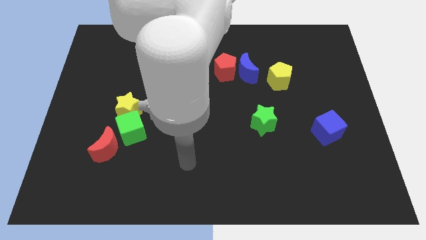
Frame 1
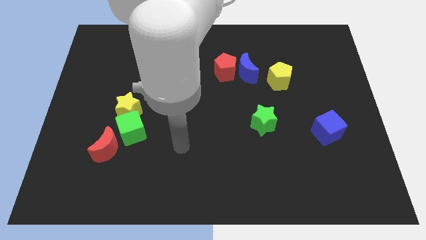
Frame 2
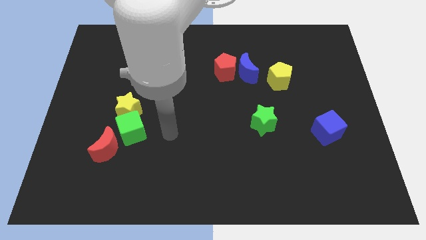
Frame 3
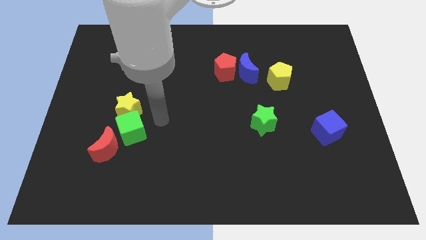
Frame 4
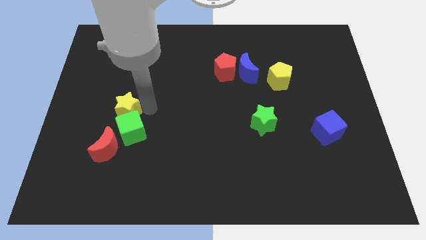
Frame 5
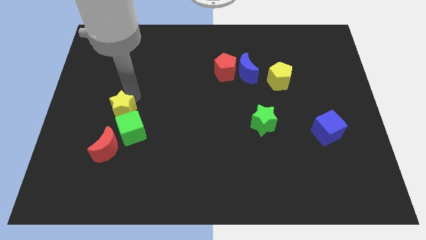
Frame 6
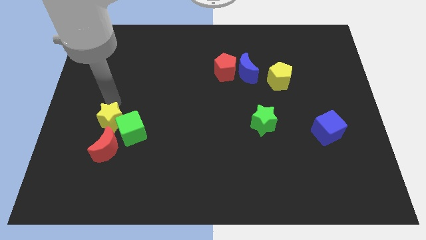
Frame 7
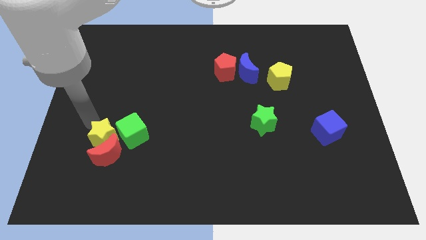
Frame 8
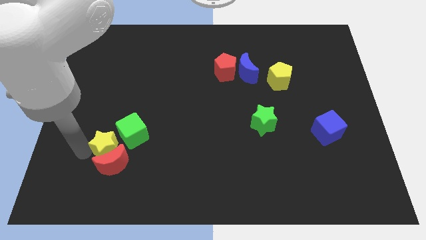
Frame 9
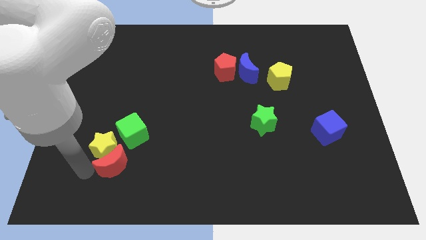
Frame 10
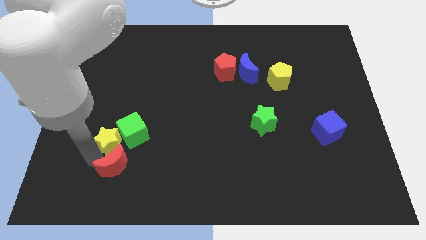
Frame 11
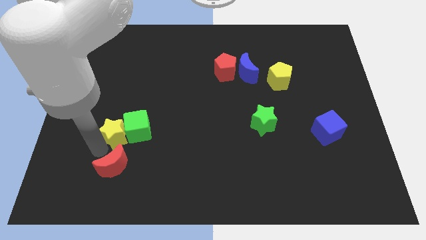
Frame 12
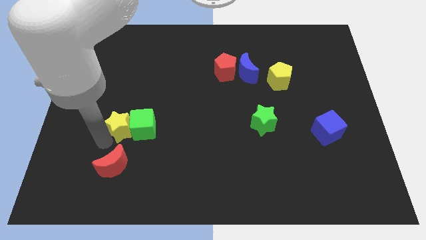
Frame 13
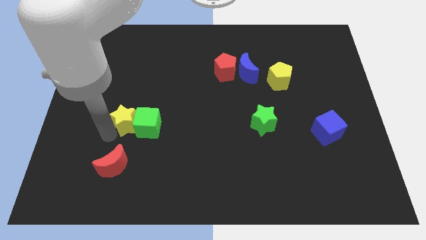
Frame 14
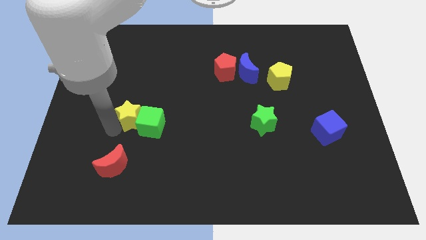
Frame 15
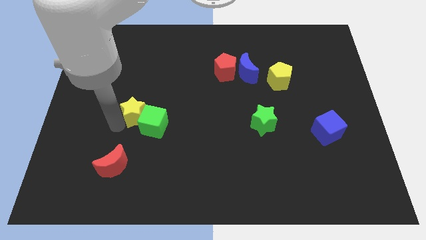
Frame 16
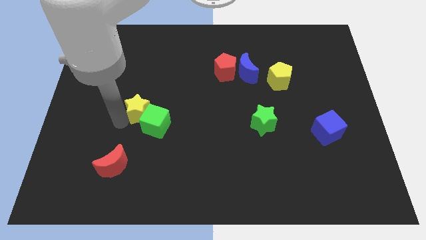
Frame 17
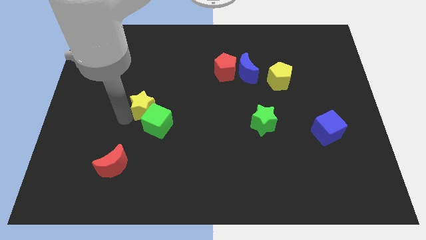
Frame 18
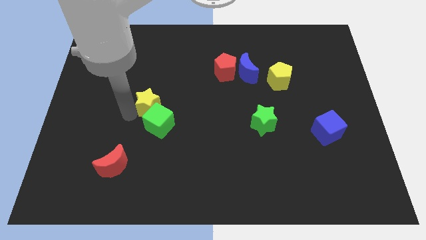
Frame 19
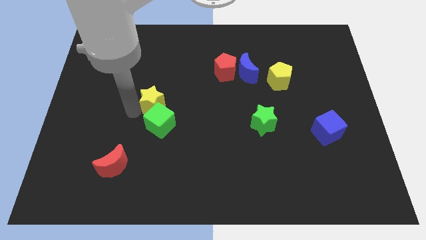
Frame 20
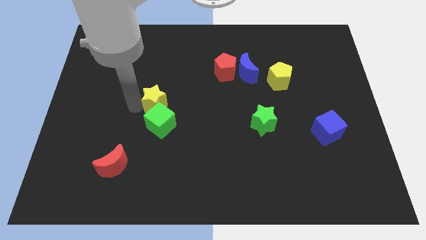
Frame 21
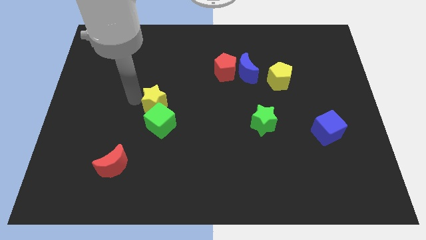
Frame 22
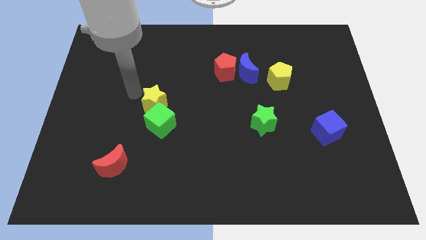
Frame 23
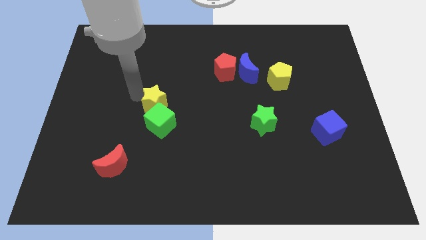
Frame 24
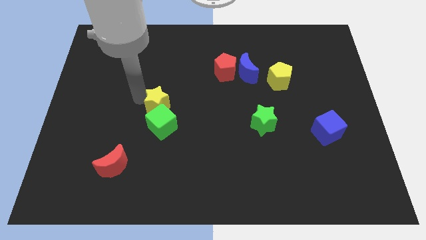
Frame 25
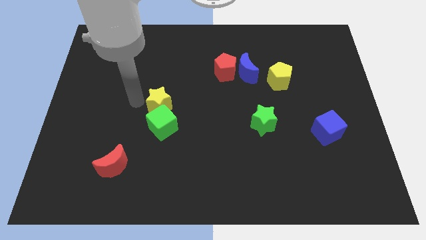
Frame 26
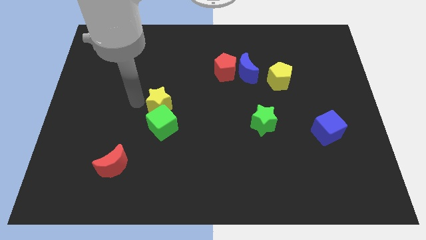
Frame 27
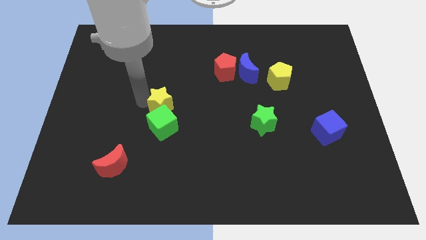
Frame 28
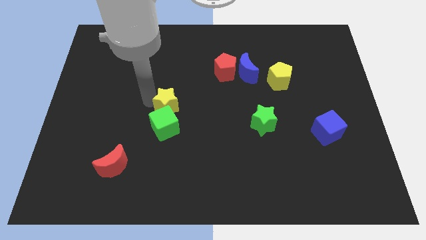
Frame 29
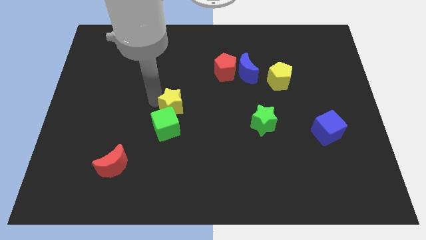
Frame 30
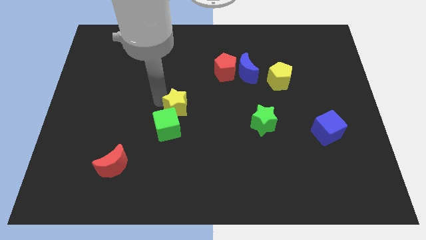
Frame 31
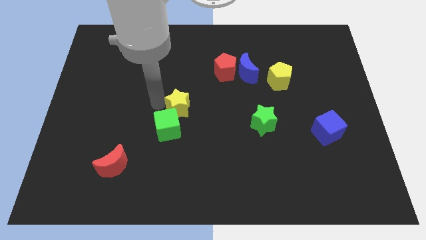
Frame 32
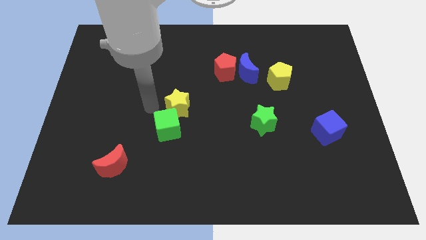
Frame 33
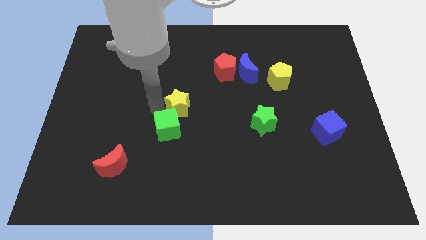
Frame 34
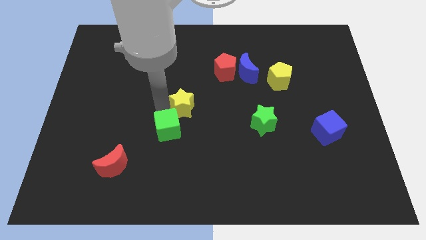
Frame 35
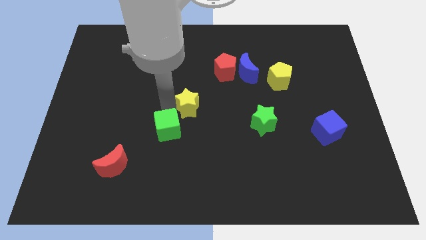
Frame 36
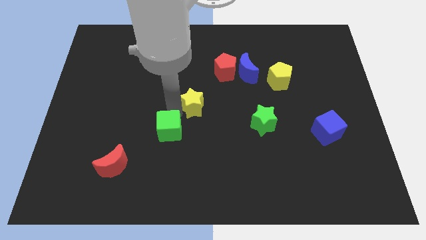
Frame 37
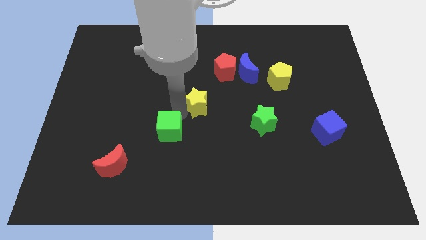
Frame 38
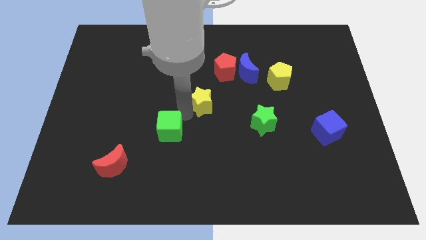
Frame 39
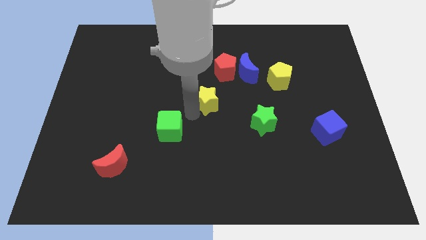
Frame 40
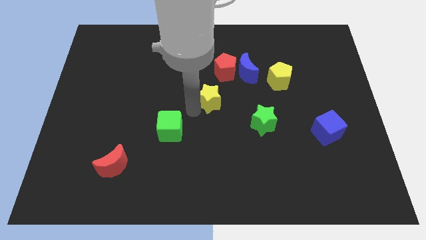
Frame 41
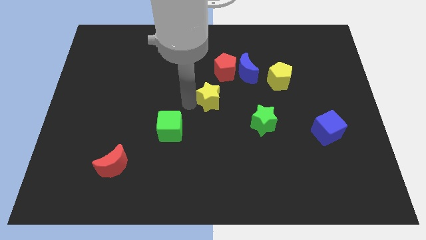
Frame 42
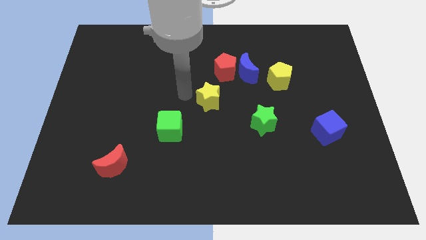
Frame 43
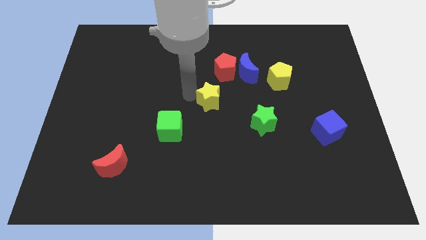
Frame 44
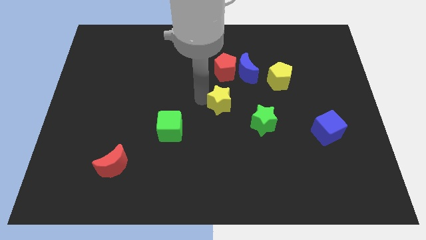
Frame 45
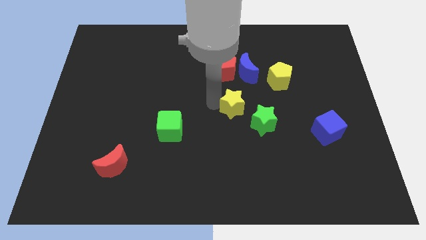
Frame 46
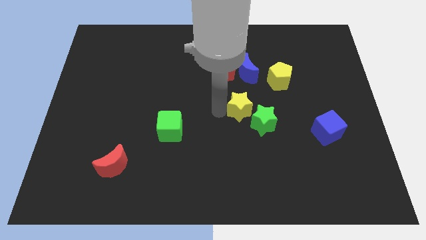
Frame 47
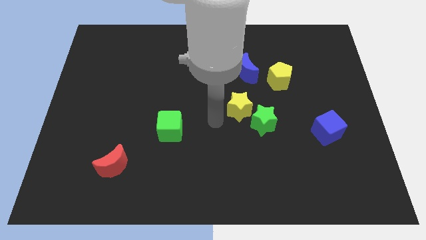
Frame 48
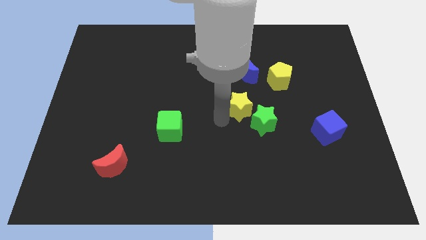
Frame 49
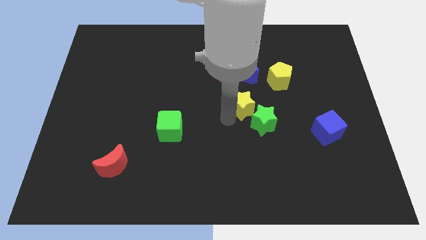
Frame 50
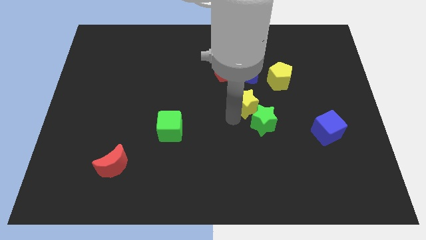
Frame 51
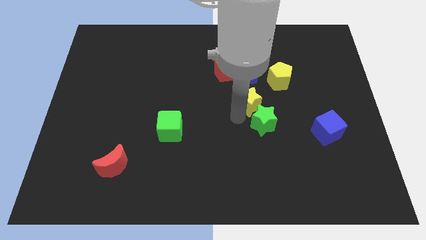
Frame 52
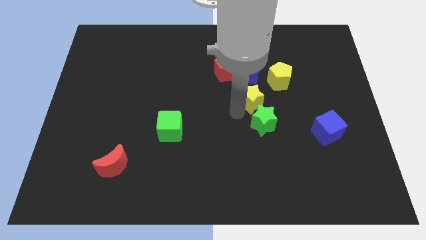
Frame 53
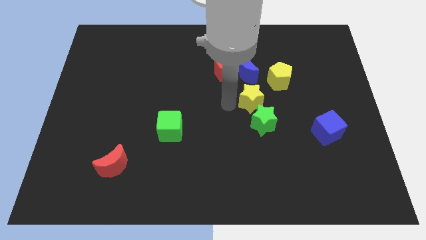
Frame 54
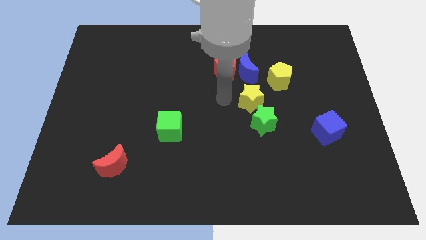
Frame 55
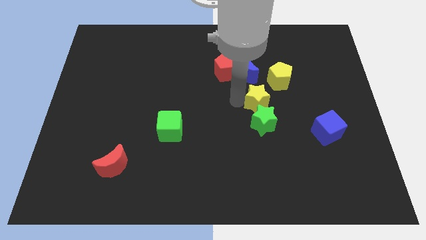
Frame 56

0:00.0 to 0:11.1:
put the yellow star diagonally up and to the right of the green star
